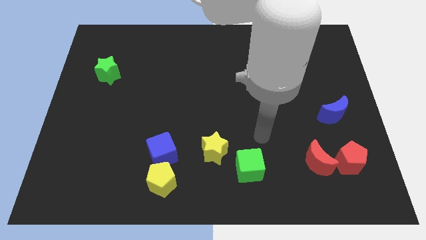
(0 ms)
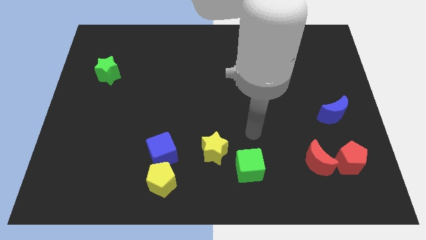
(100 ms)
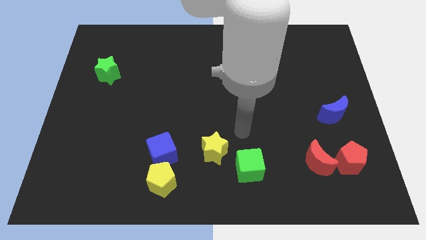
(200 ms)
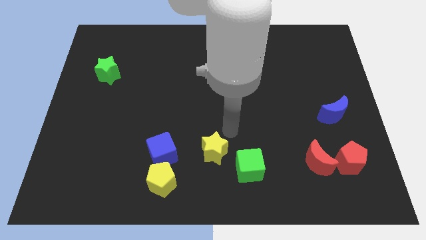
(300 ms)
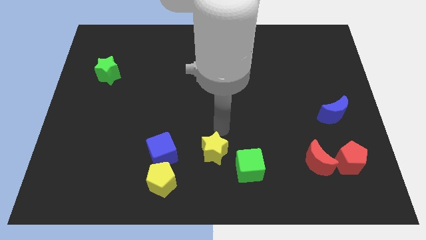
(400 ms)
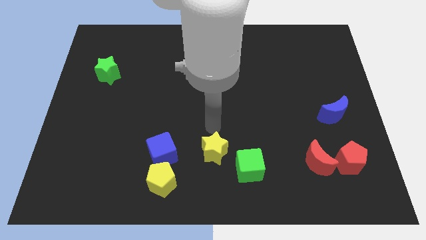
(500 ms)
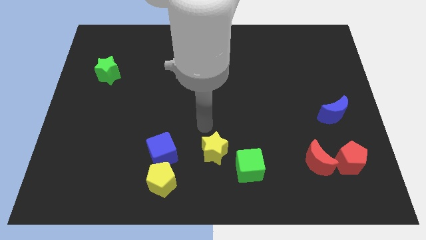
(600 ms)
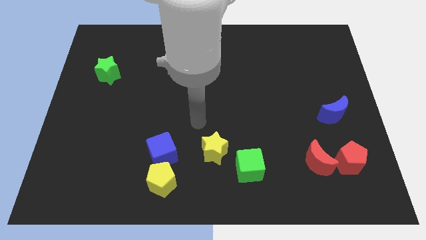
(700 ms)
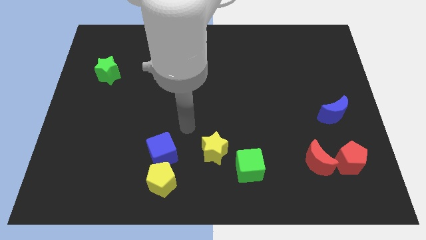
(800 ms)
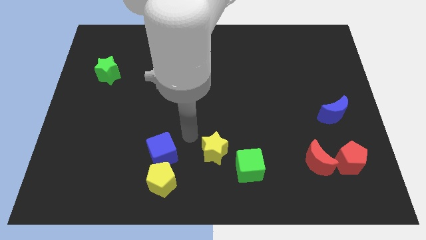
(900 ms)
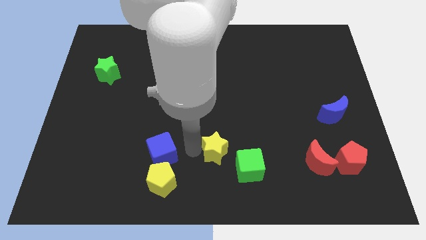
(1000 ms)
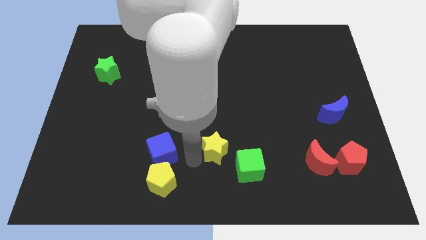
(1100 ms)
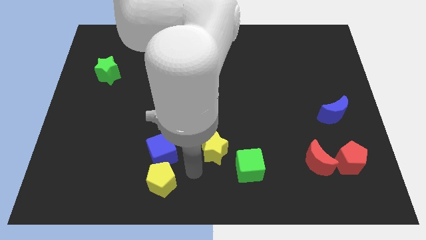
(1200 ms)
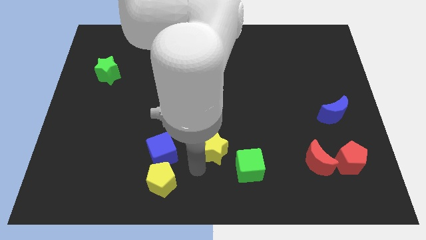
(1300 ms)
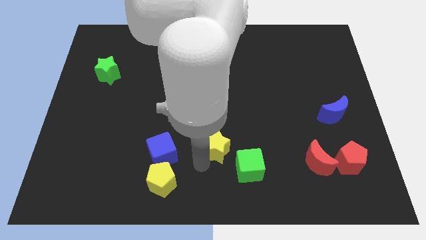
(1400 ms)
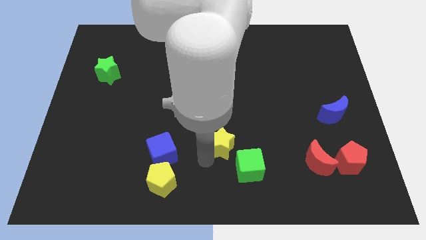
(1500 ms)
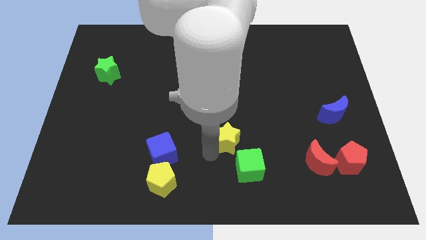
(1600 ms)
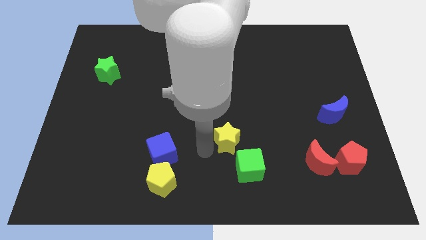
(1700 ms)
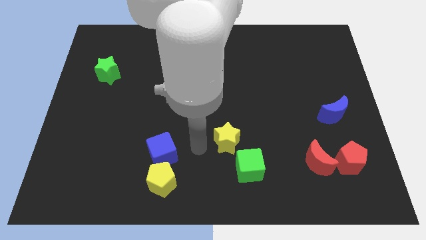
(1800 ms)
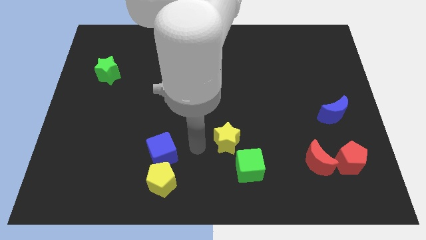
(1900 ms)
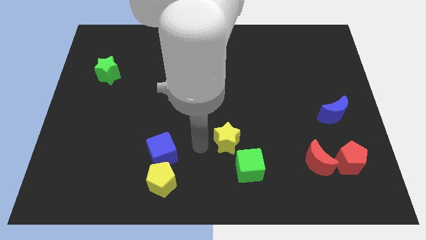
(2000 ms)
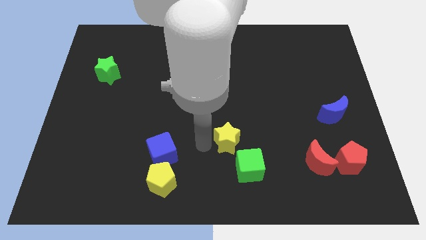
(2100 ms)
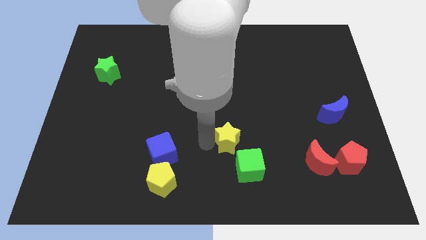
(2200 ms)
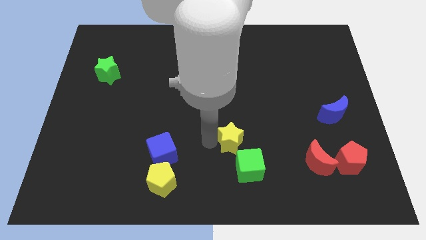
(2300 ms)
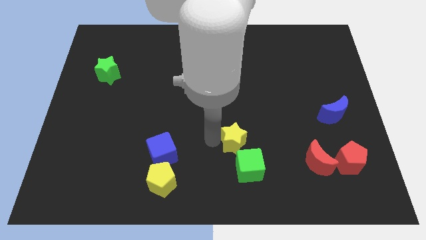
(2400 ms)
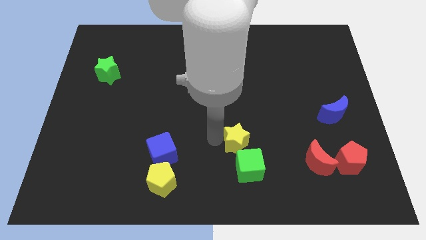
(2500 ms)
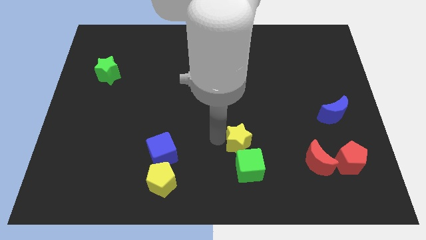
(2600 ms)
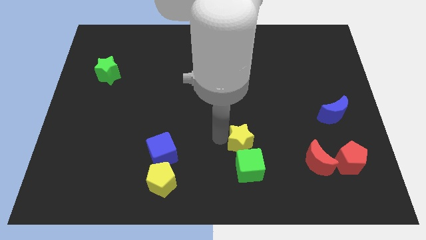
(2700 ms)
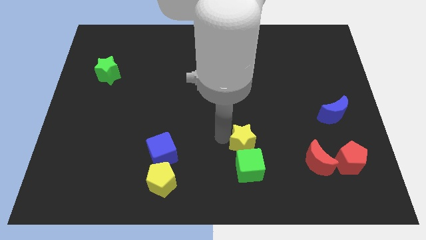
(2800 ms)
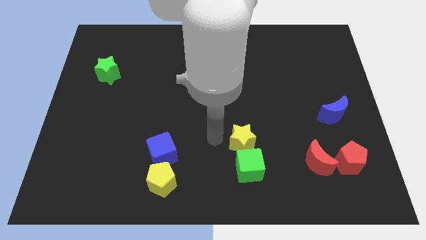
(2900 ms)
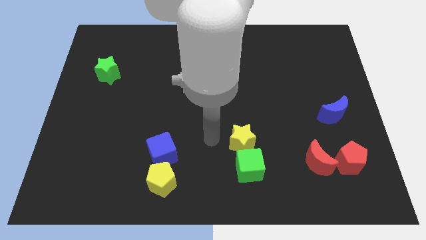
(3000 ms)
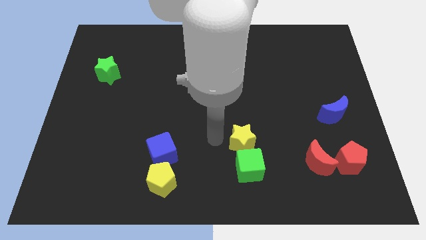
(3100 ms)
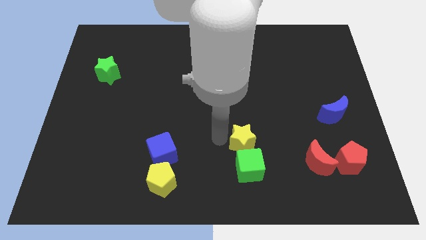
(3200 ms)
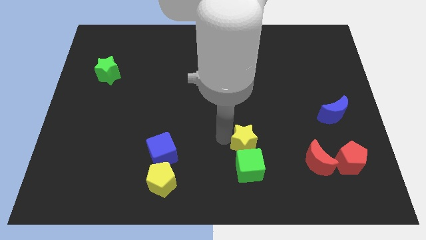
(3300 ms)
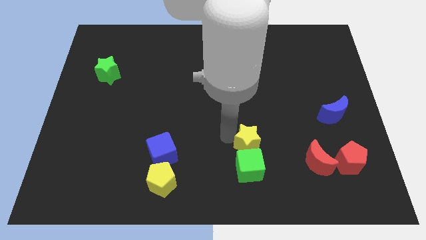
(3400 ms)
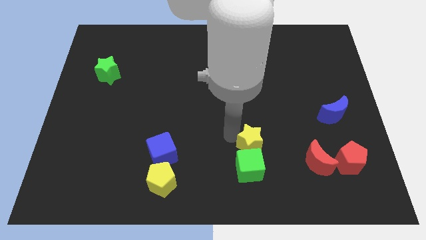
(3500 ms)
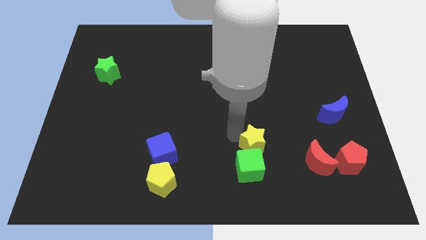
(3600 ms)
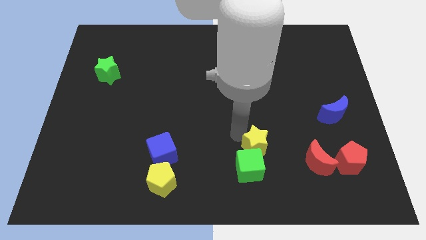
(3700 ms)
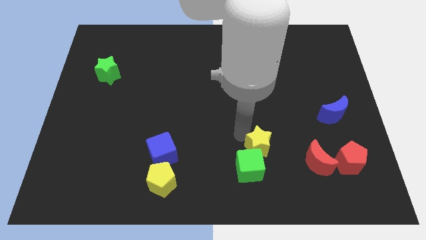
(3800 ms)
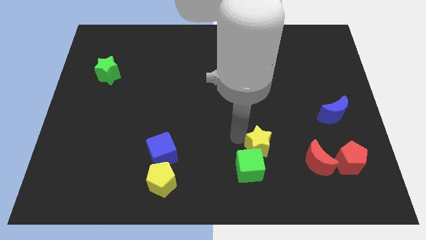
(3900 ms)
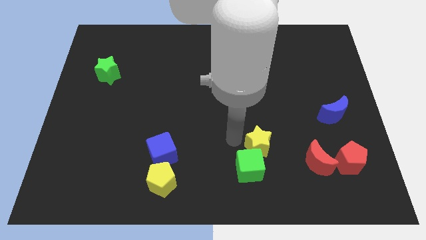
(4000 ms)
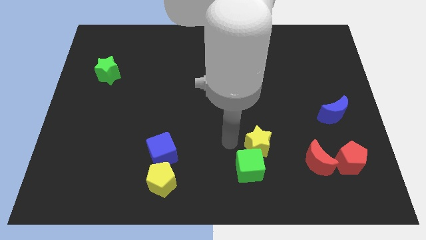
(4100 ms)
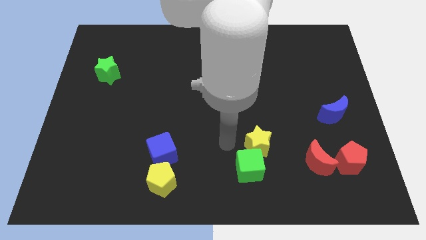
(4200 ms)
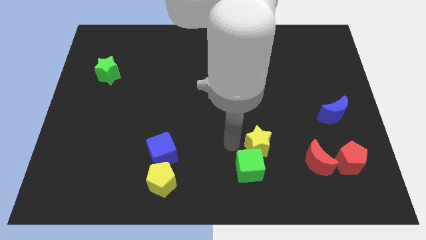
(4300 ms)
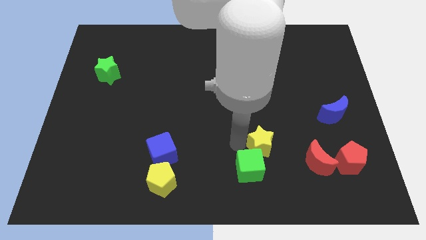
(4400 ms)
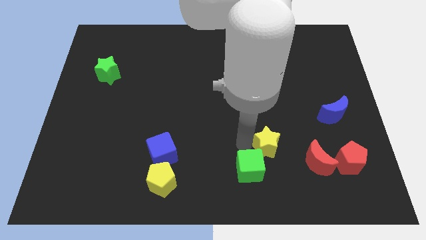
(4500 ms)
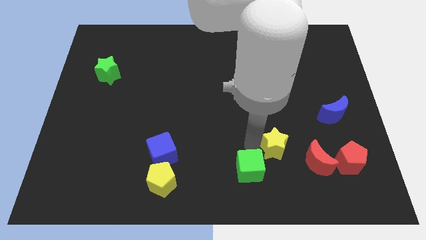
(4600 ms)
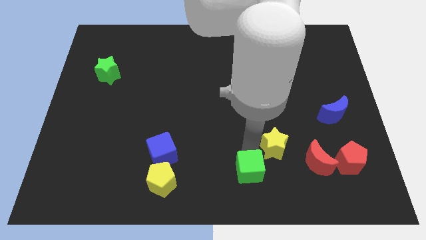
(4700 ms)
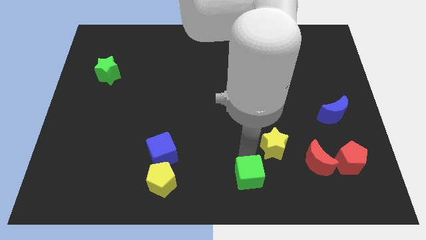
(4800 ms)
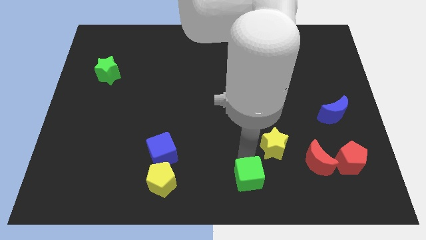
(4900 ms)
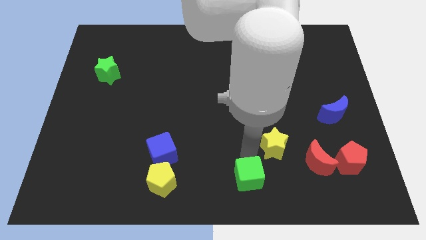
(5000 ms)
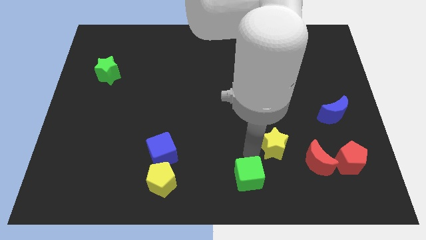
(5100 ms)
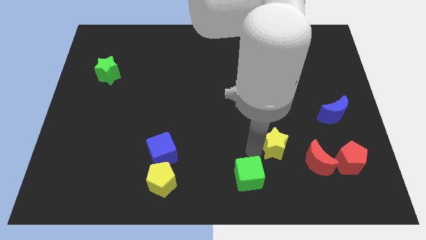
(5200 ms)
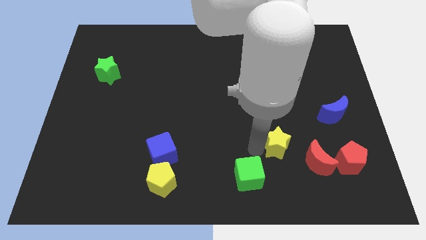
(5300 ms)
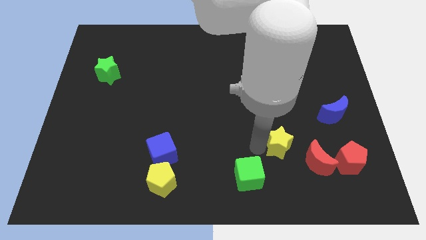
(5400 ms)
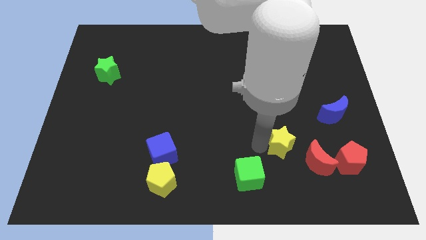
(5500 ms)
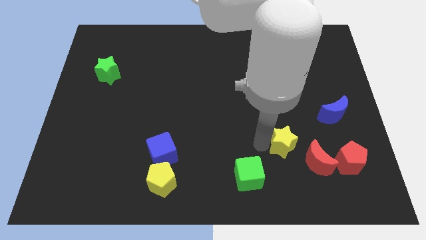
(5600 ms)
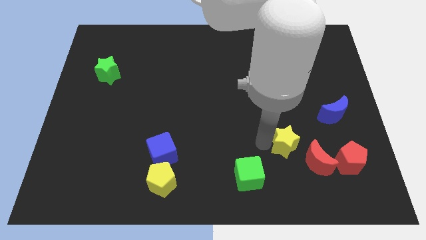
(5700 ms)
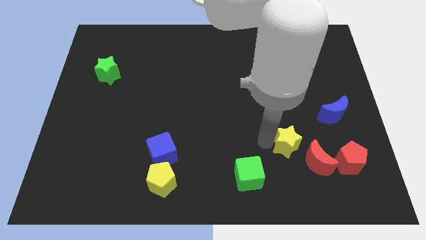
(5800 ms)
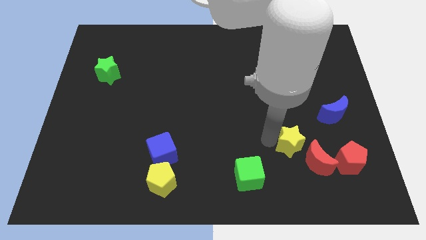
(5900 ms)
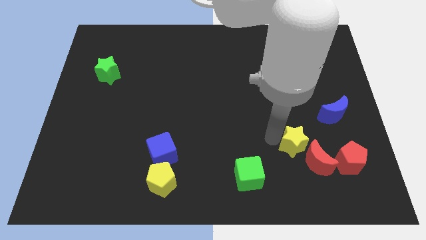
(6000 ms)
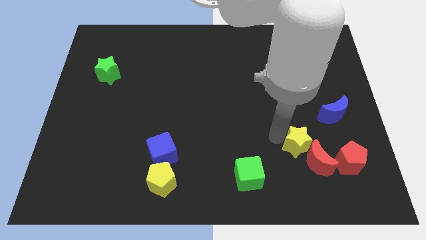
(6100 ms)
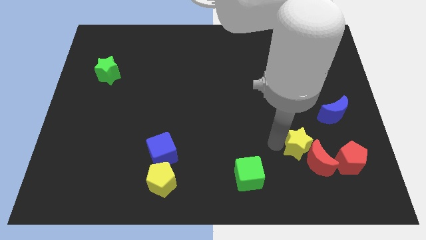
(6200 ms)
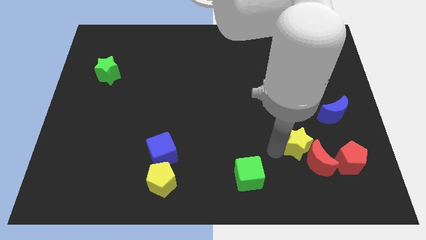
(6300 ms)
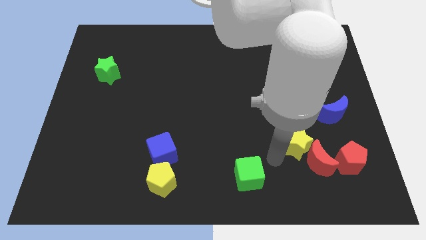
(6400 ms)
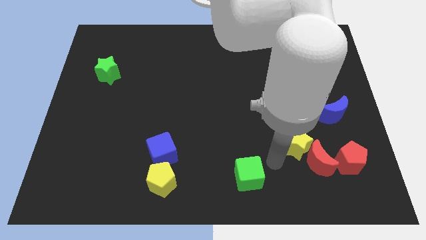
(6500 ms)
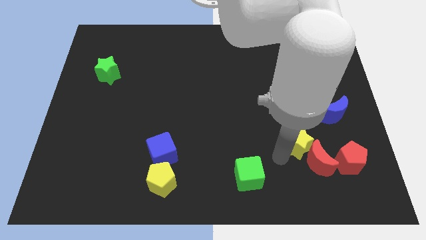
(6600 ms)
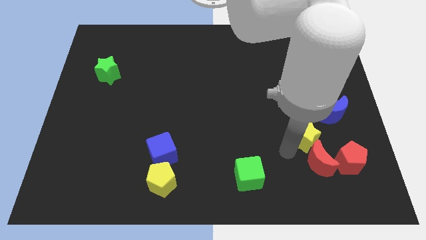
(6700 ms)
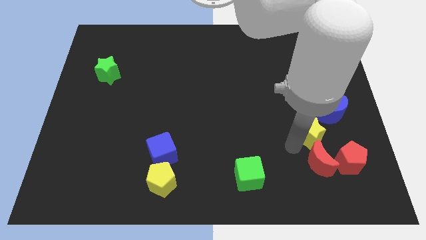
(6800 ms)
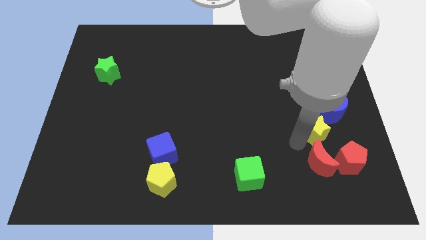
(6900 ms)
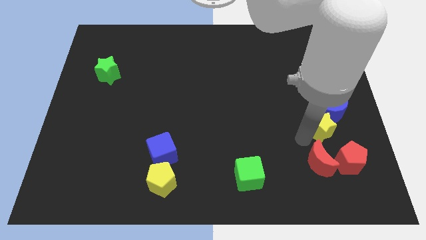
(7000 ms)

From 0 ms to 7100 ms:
push the yellow star next to the blue moon
